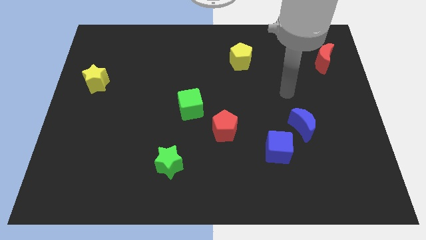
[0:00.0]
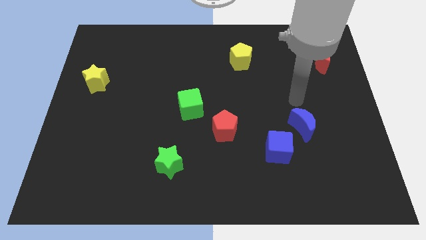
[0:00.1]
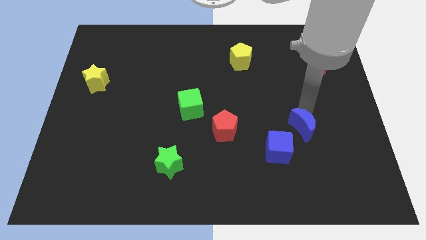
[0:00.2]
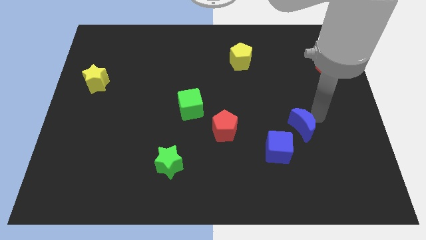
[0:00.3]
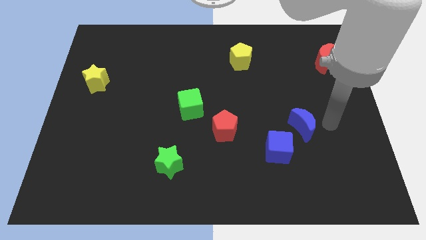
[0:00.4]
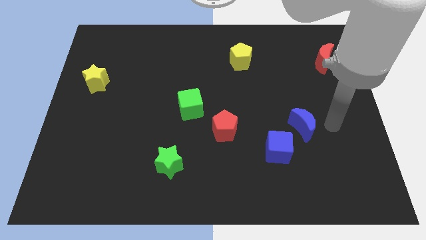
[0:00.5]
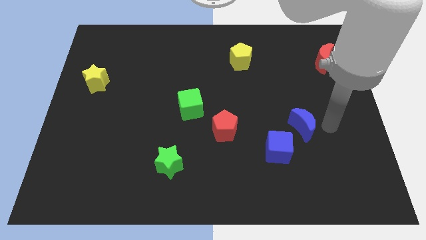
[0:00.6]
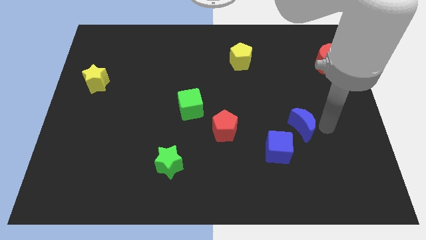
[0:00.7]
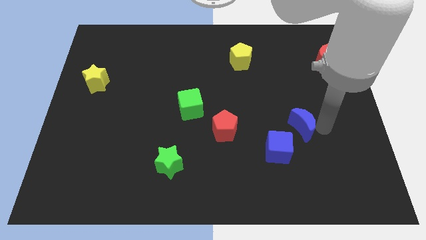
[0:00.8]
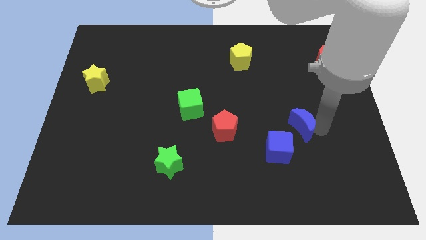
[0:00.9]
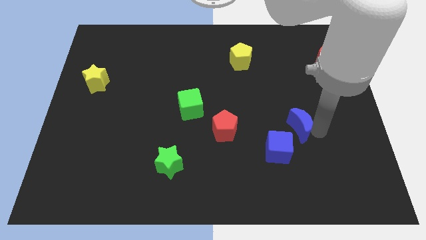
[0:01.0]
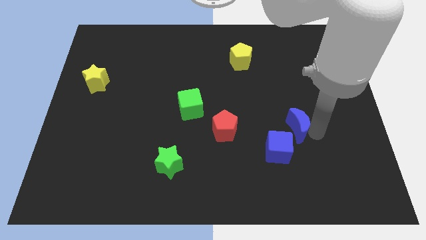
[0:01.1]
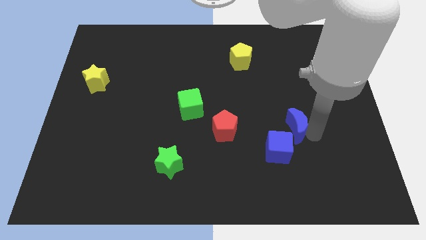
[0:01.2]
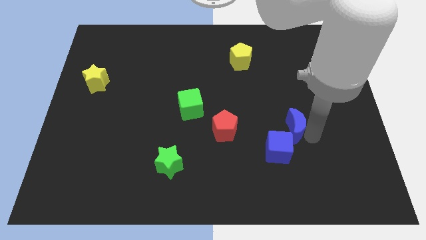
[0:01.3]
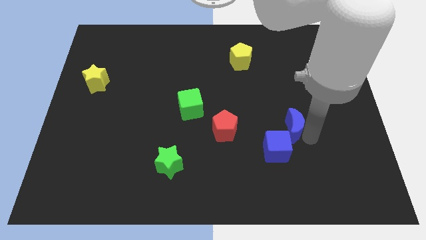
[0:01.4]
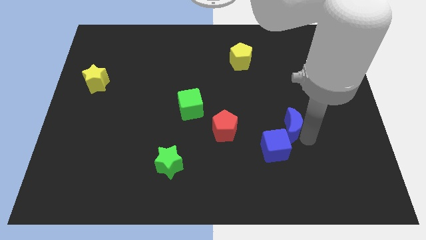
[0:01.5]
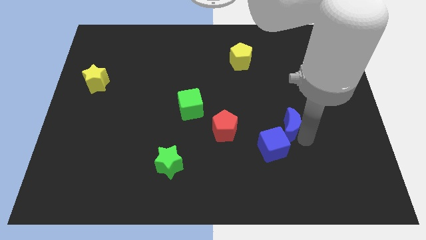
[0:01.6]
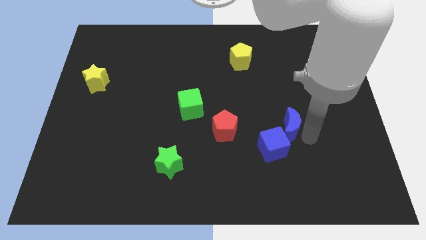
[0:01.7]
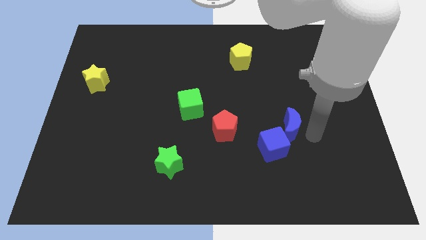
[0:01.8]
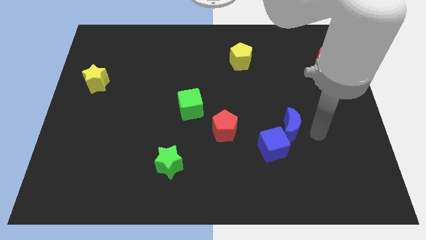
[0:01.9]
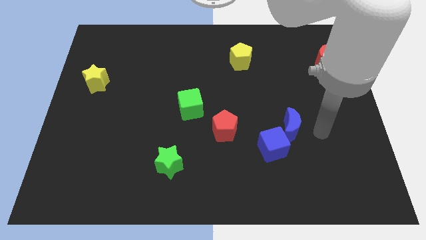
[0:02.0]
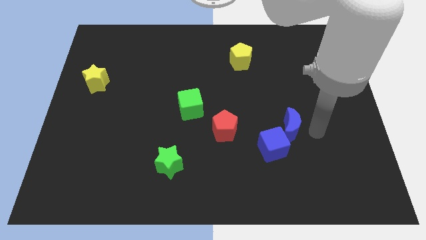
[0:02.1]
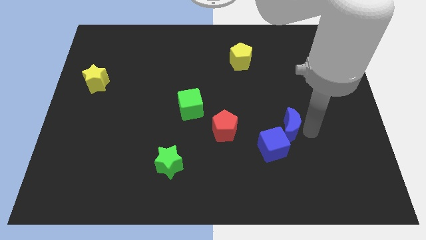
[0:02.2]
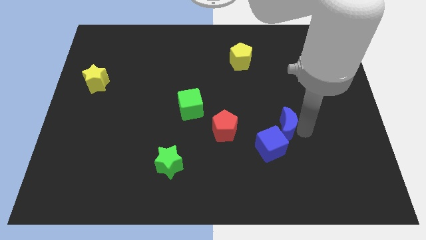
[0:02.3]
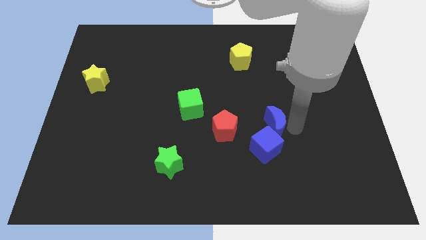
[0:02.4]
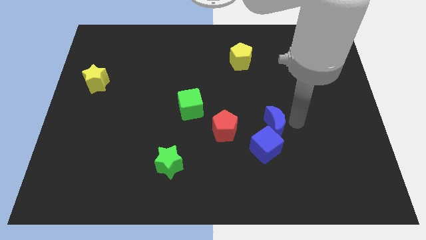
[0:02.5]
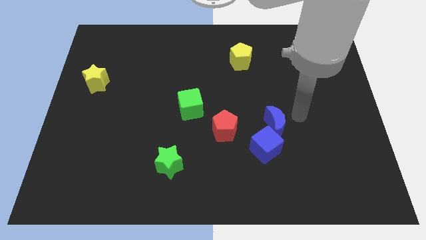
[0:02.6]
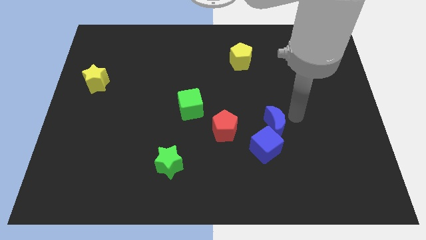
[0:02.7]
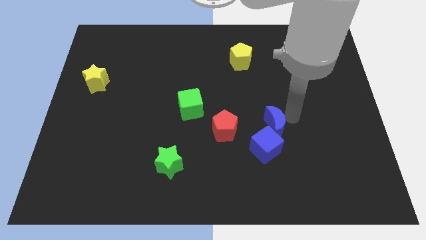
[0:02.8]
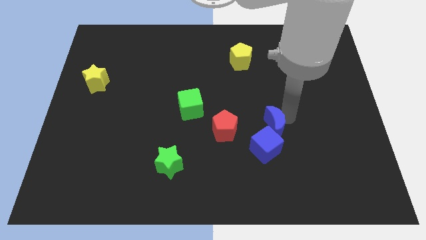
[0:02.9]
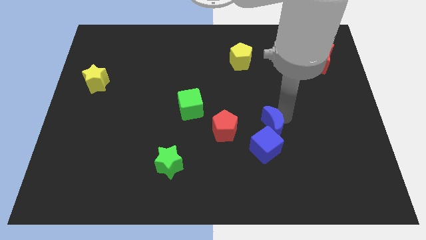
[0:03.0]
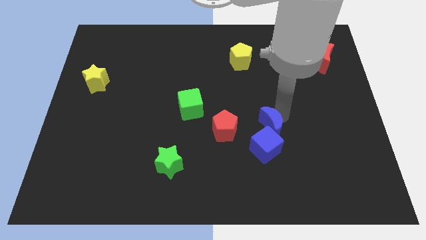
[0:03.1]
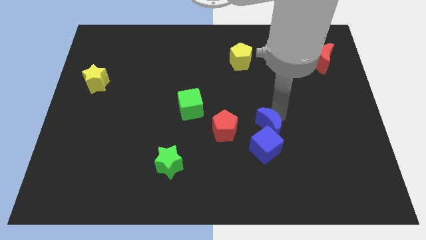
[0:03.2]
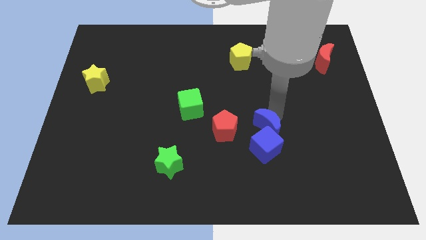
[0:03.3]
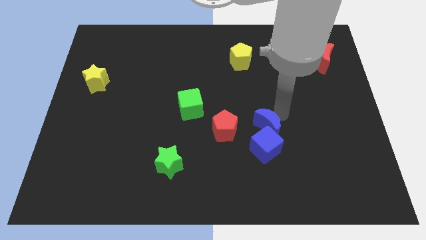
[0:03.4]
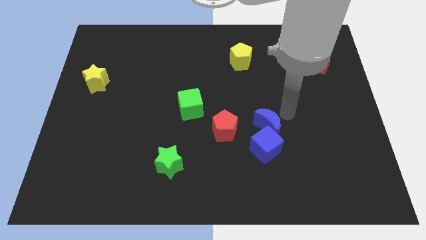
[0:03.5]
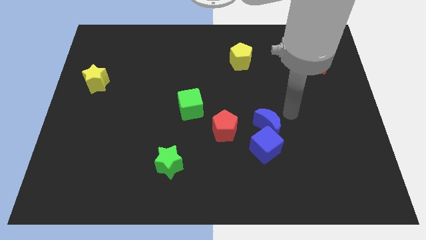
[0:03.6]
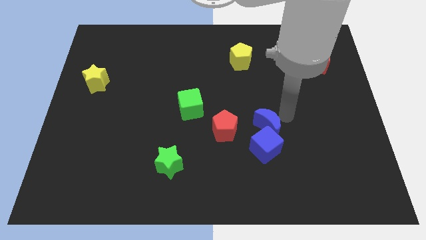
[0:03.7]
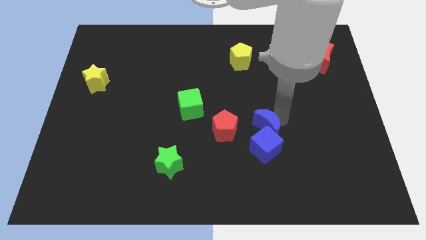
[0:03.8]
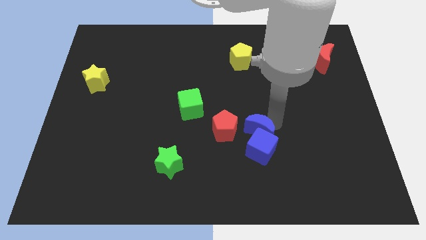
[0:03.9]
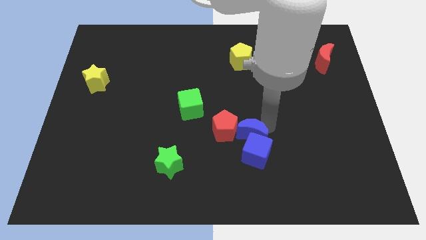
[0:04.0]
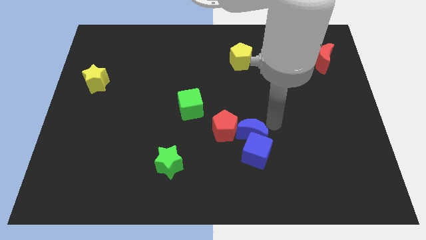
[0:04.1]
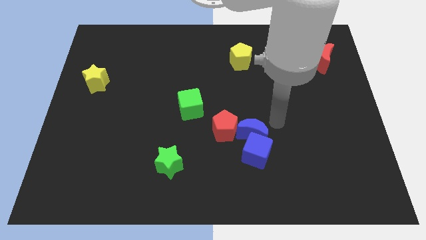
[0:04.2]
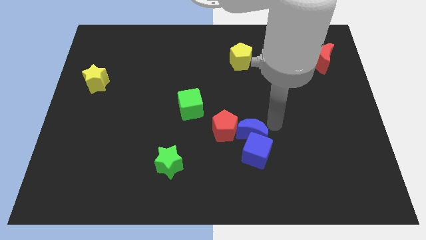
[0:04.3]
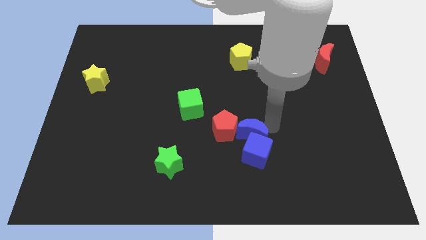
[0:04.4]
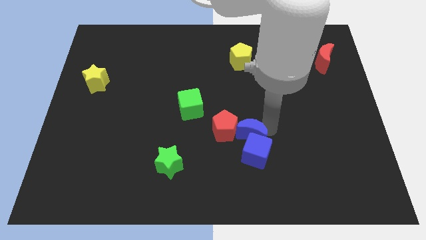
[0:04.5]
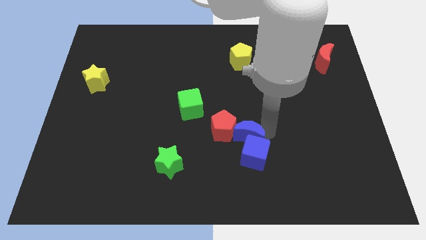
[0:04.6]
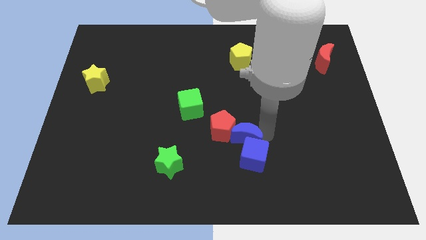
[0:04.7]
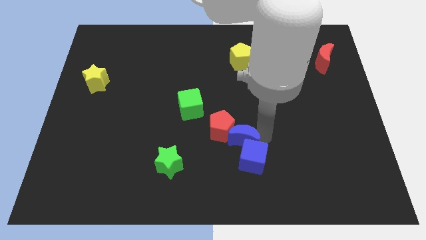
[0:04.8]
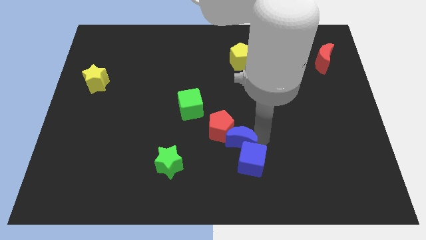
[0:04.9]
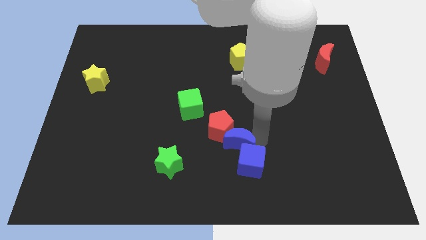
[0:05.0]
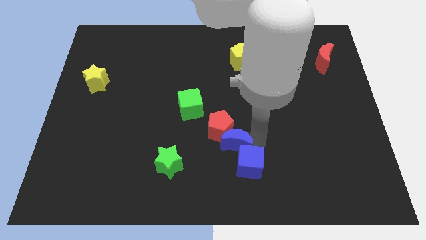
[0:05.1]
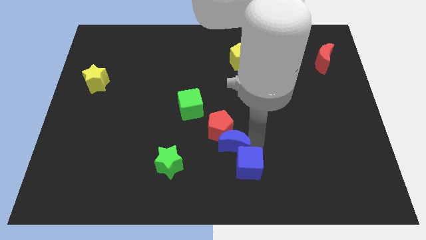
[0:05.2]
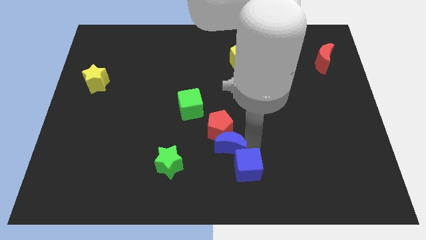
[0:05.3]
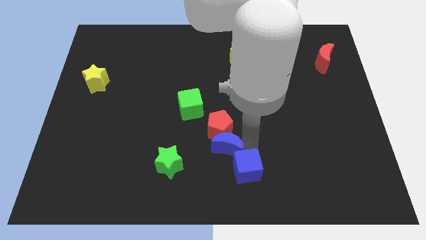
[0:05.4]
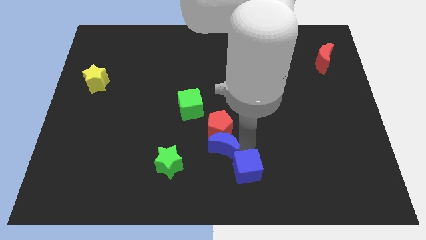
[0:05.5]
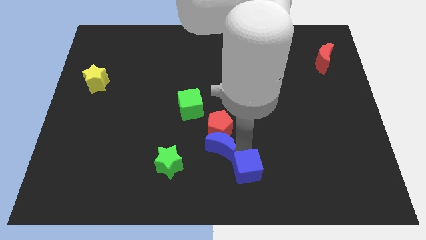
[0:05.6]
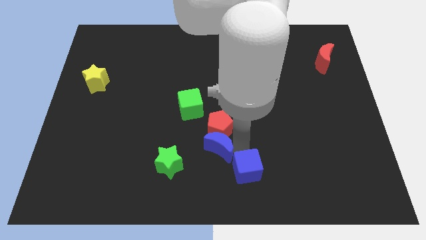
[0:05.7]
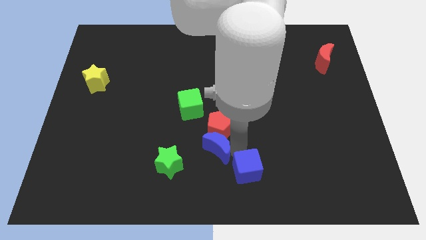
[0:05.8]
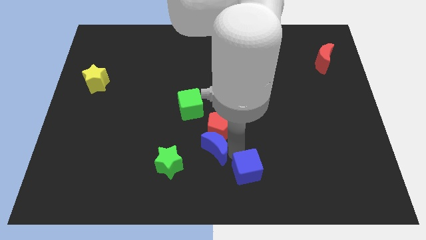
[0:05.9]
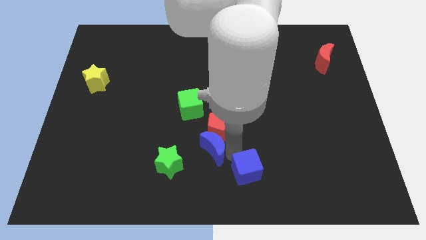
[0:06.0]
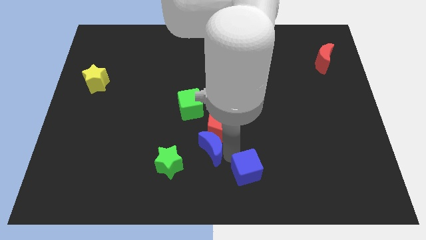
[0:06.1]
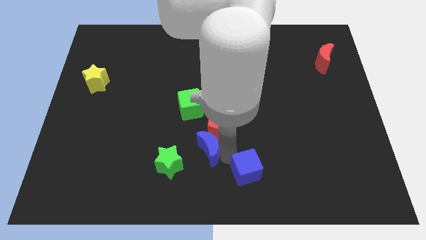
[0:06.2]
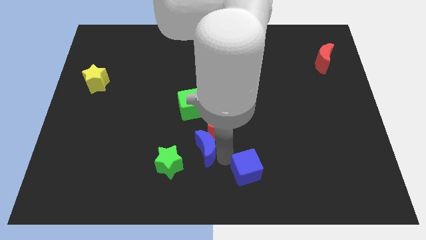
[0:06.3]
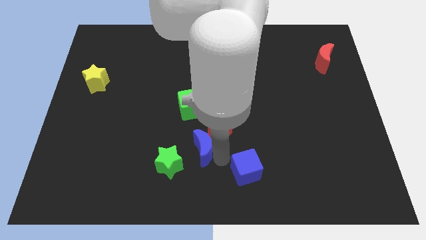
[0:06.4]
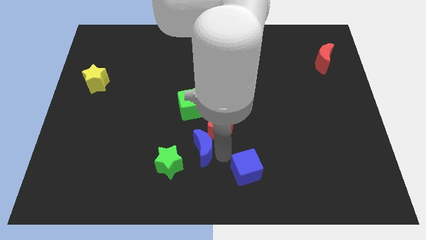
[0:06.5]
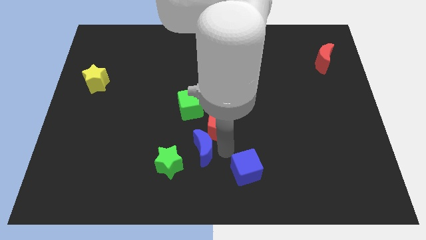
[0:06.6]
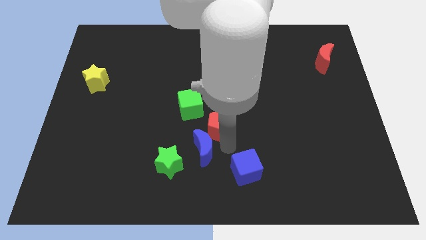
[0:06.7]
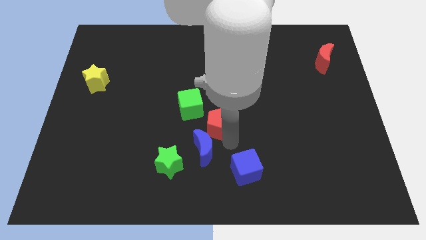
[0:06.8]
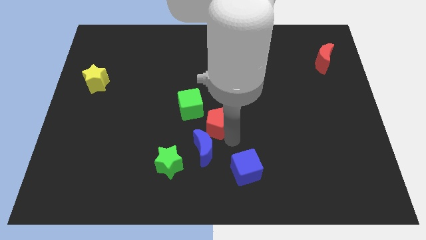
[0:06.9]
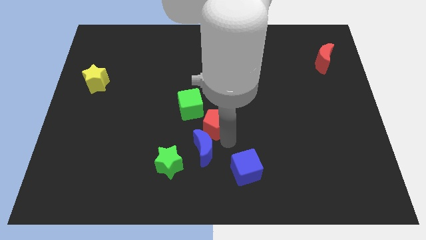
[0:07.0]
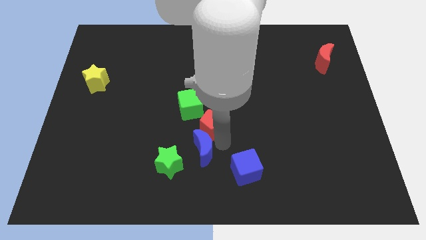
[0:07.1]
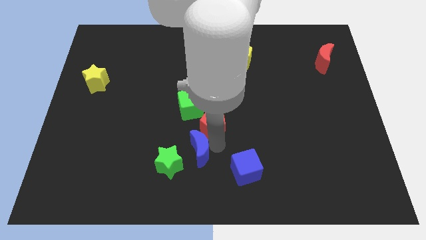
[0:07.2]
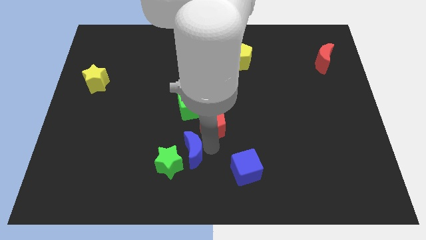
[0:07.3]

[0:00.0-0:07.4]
slide the blue moon to the green star
